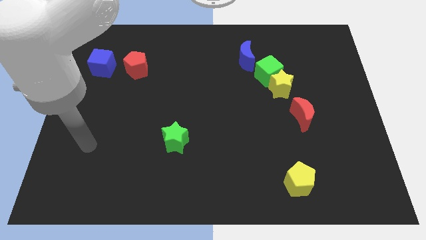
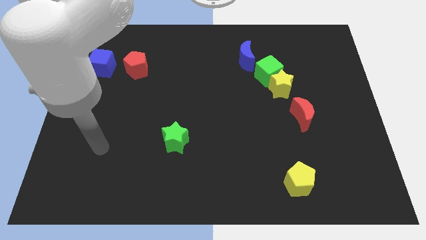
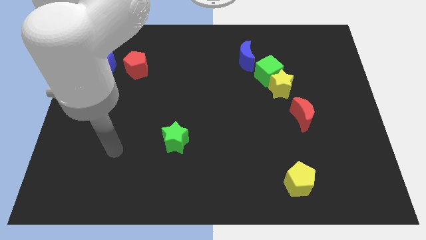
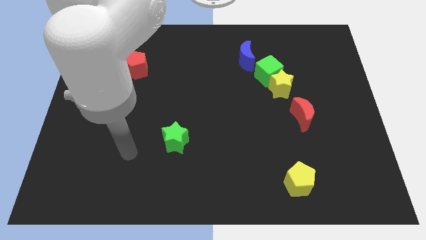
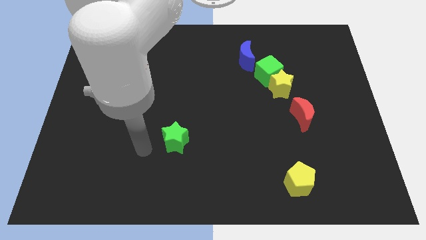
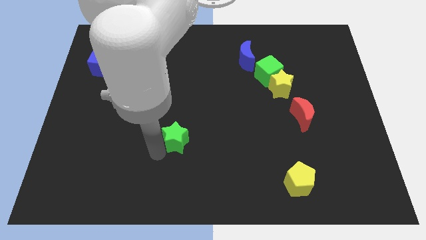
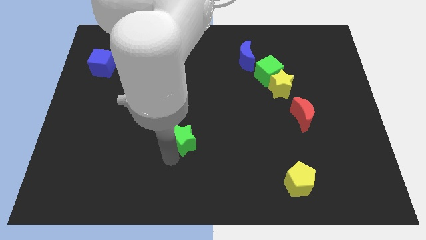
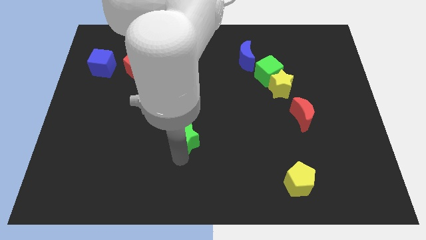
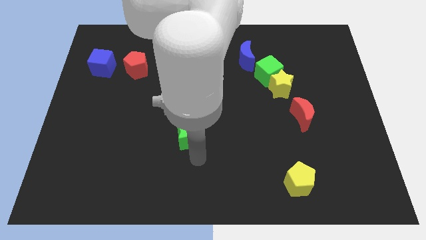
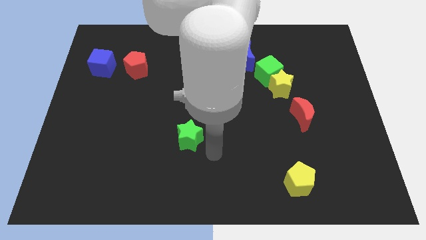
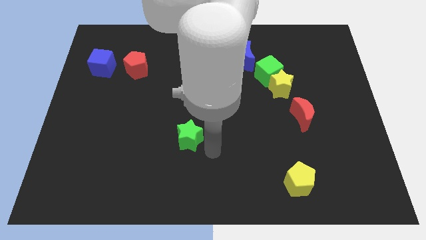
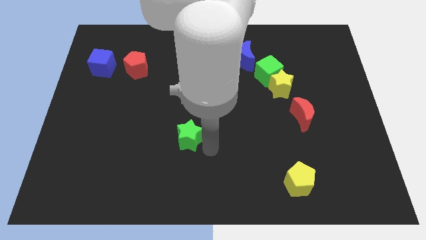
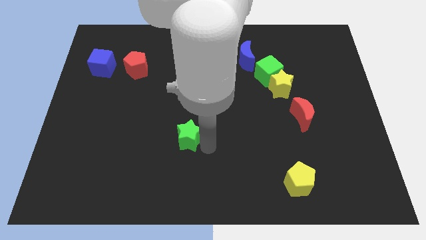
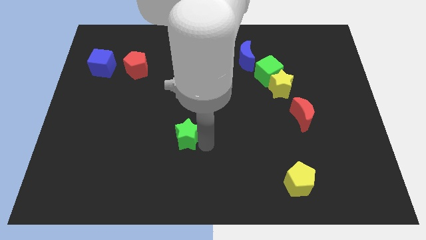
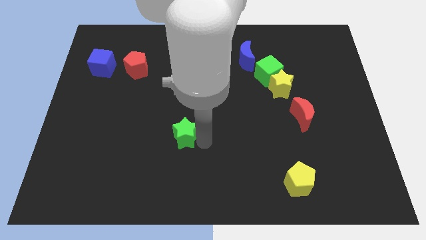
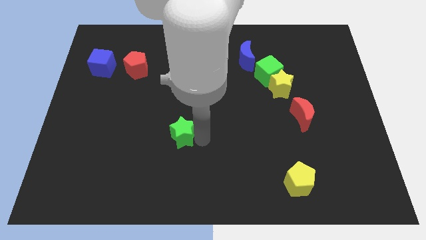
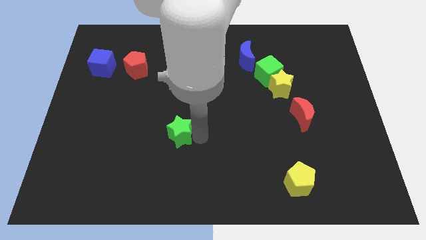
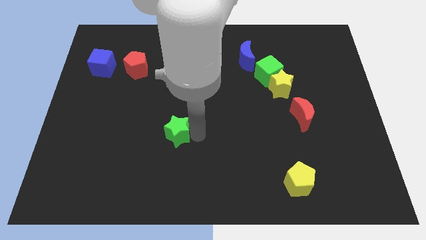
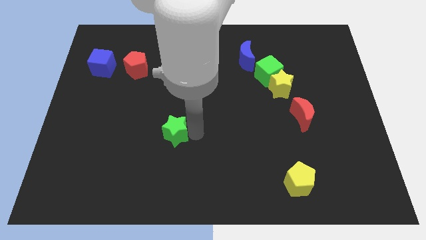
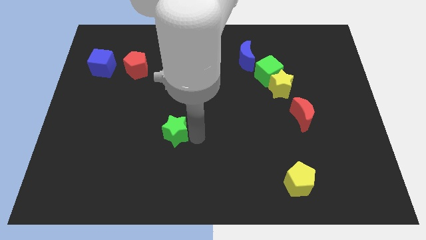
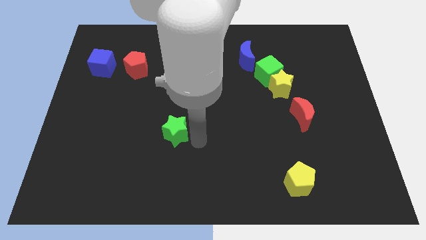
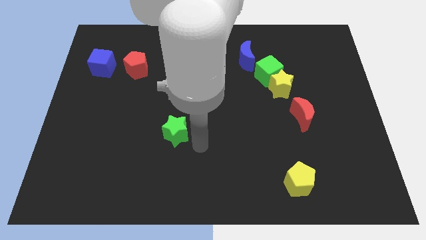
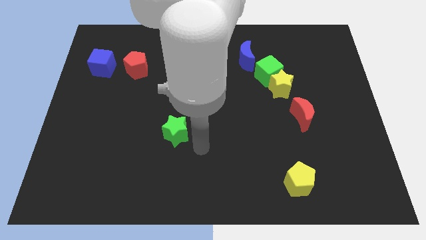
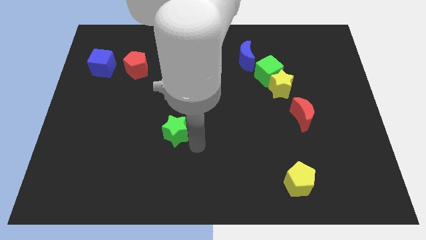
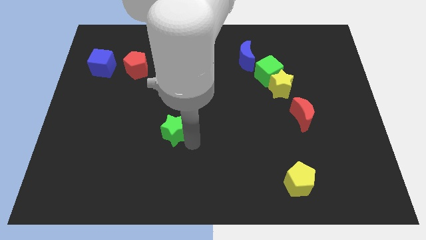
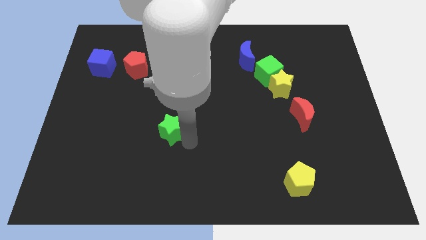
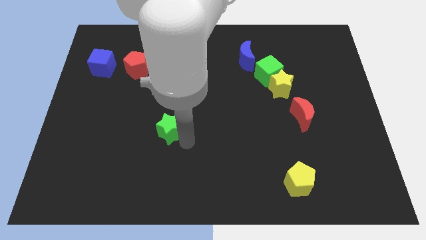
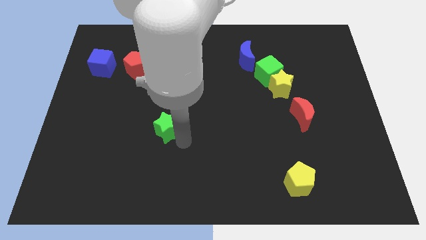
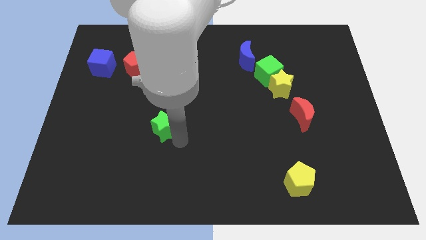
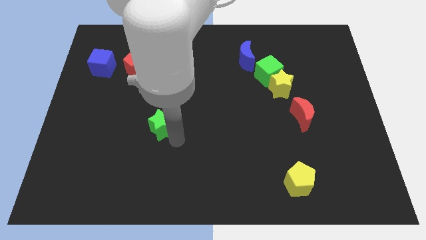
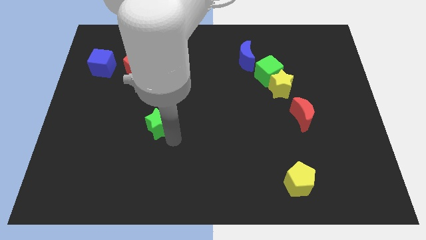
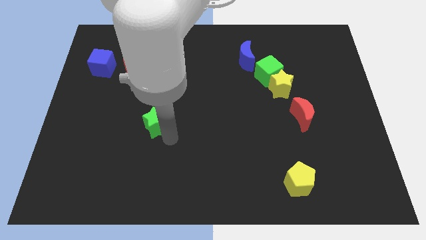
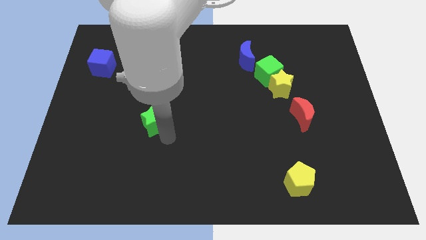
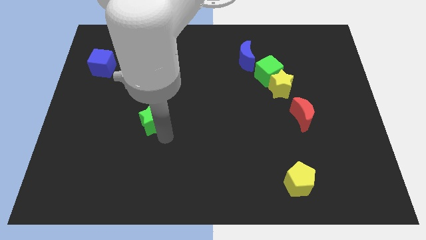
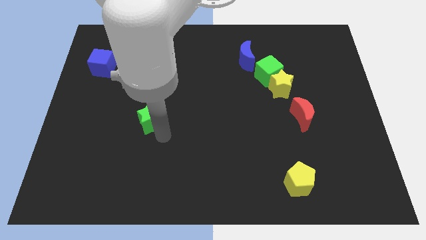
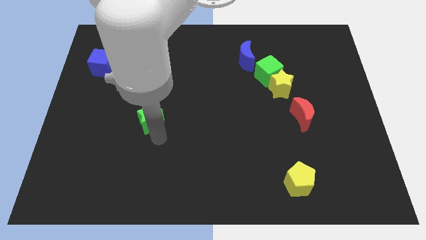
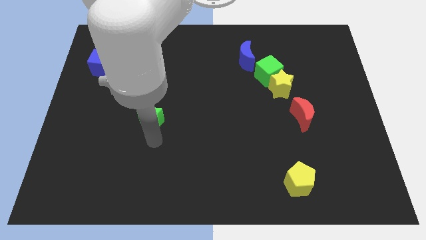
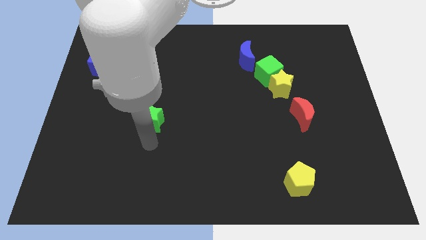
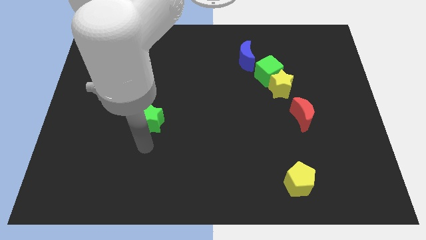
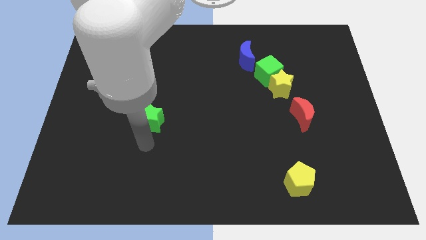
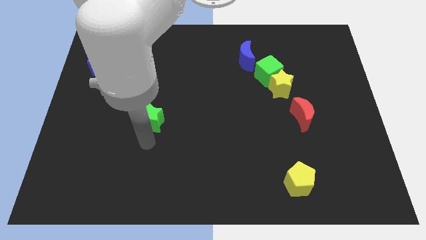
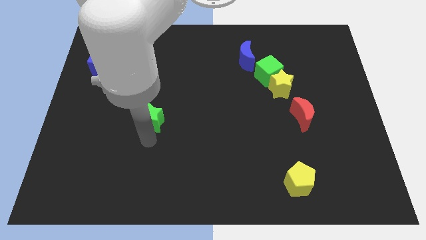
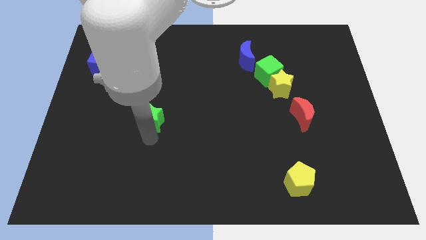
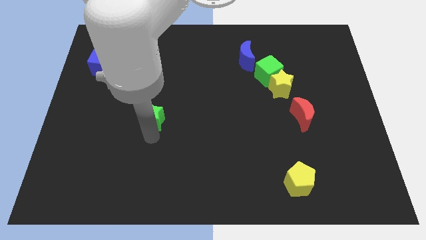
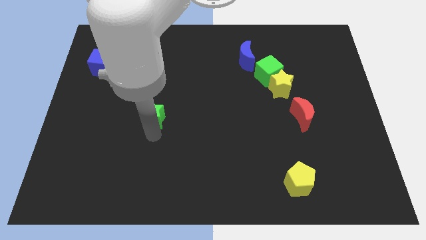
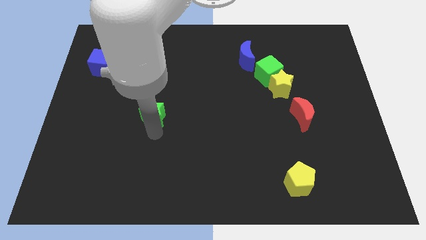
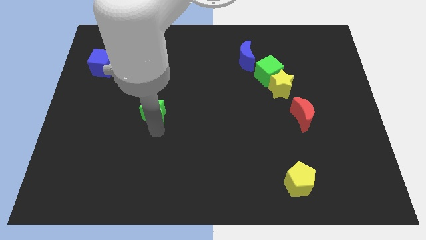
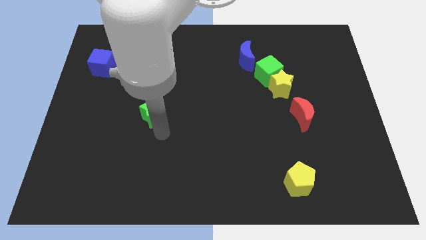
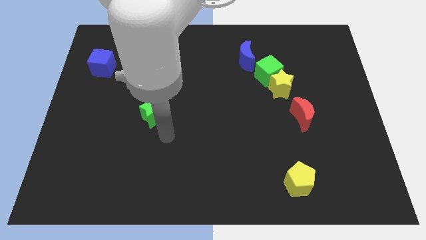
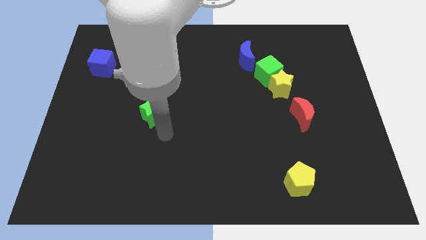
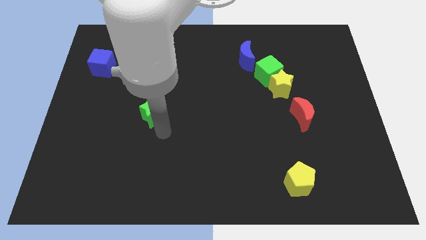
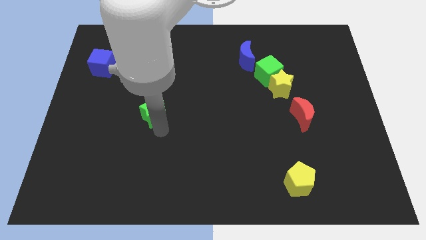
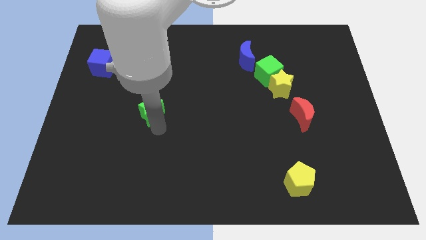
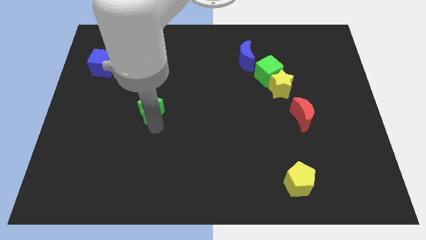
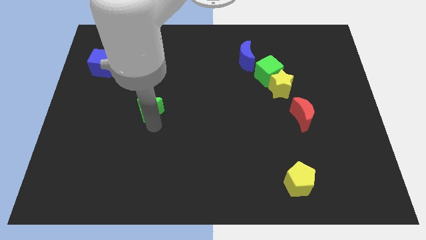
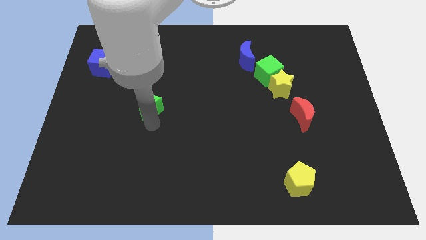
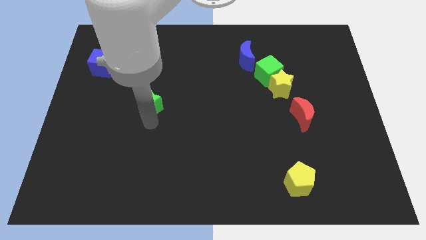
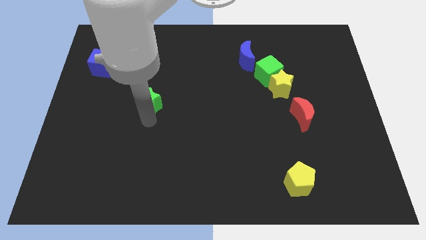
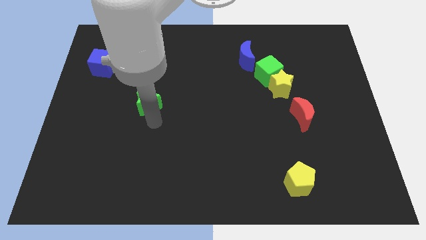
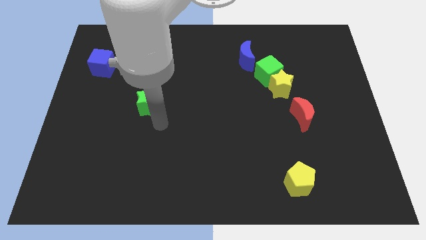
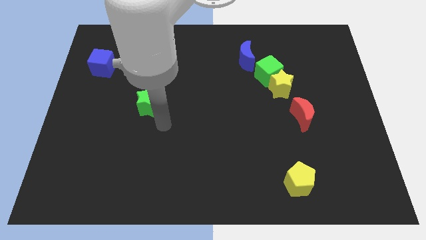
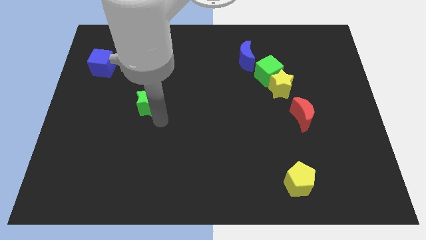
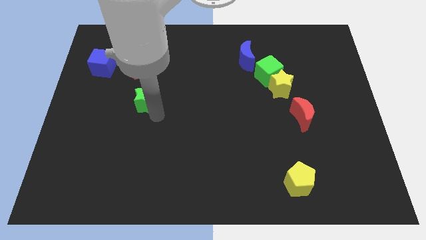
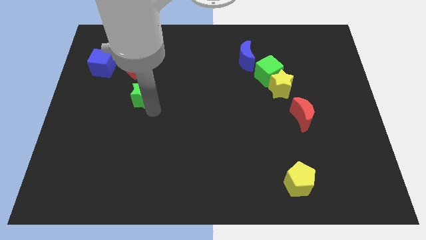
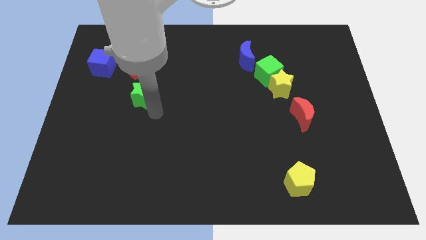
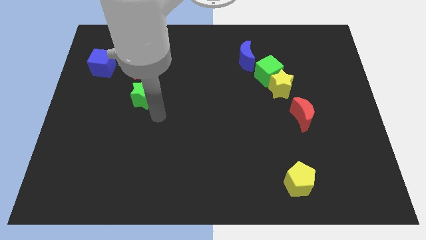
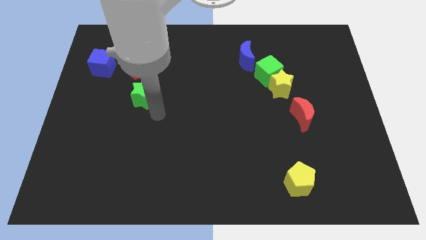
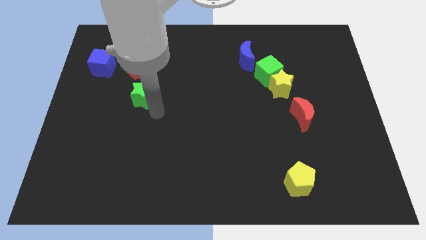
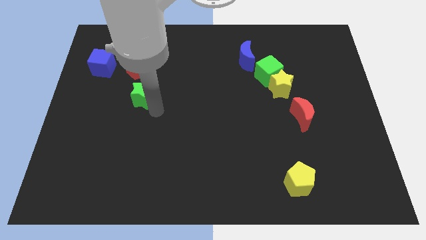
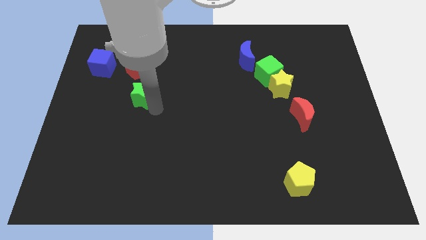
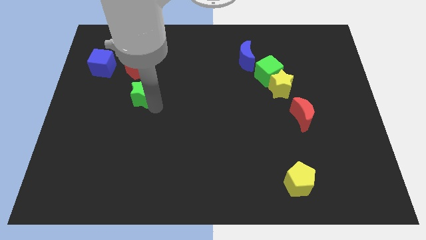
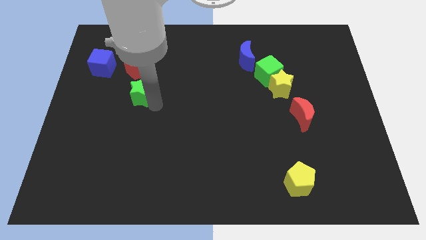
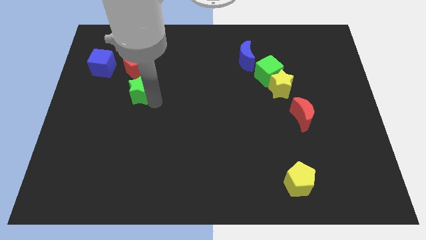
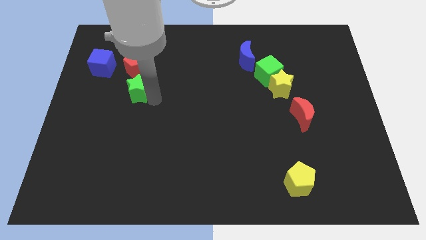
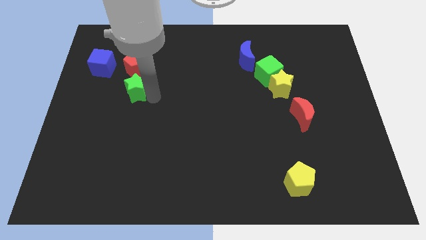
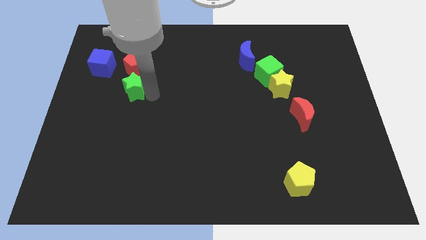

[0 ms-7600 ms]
slide the green star to the bottom right of the blue cube
